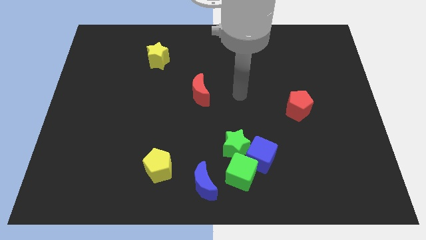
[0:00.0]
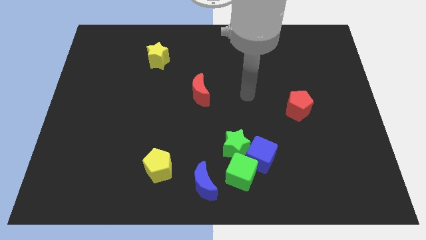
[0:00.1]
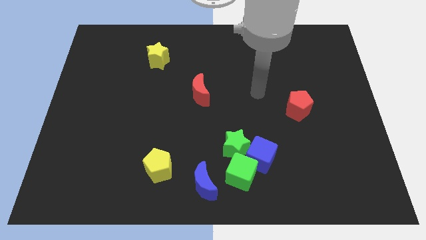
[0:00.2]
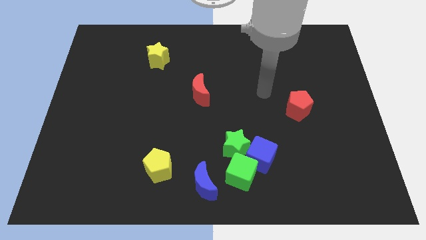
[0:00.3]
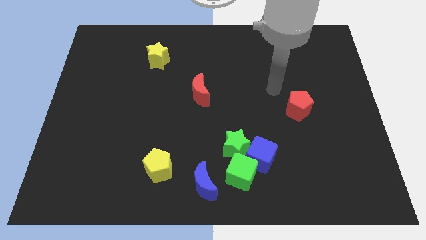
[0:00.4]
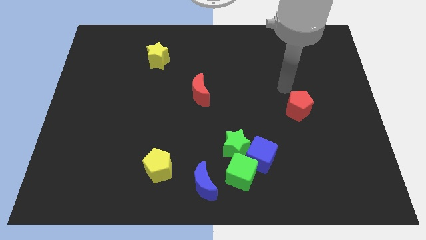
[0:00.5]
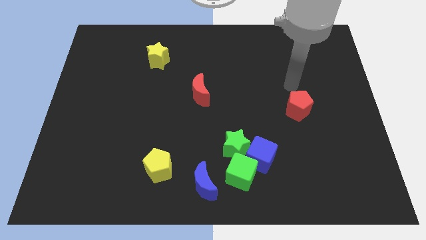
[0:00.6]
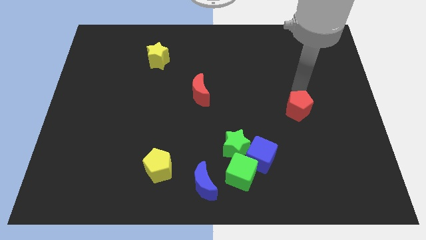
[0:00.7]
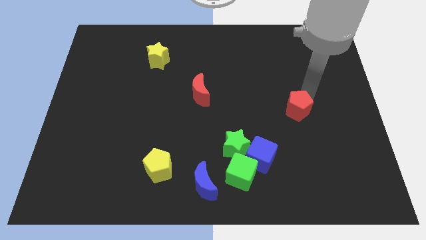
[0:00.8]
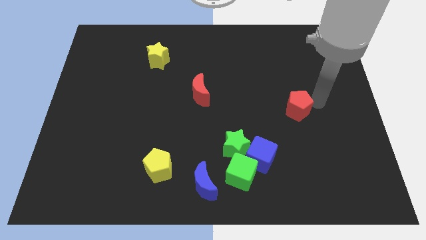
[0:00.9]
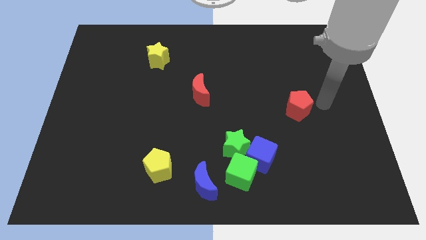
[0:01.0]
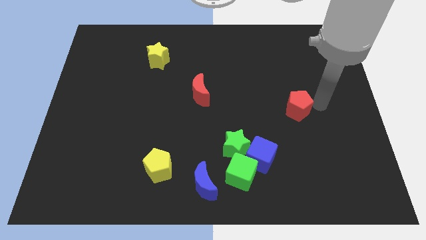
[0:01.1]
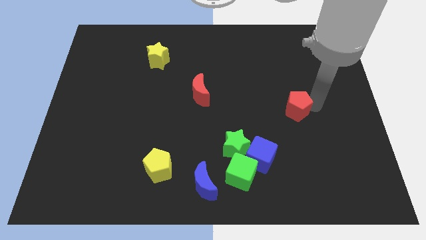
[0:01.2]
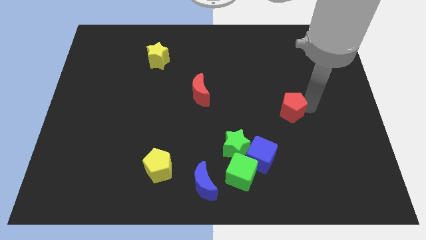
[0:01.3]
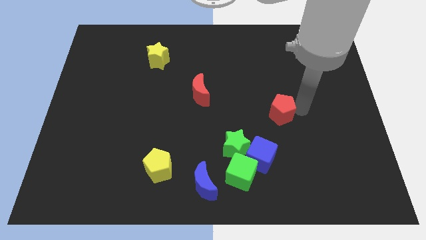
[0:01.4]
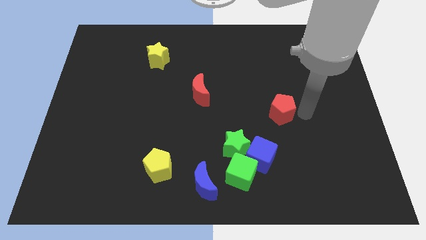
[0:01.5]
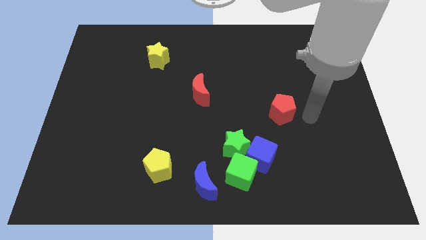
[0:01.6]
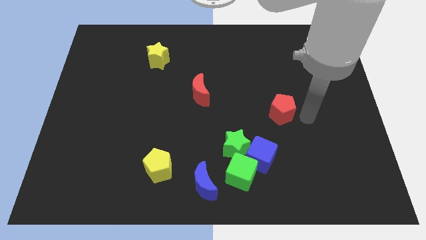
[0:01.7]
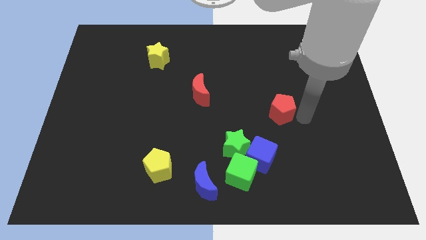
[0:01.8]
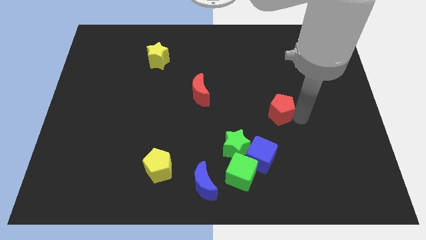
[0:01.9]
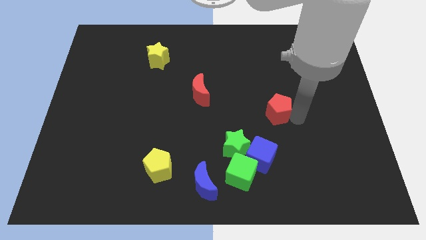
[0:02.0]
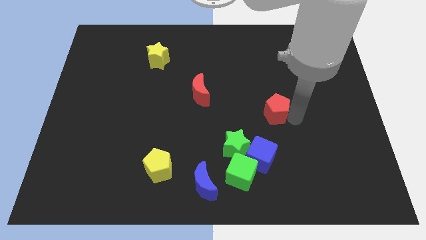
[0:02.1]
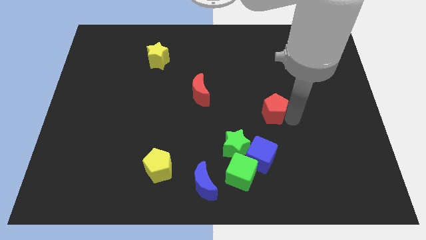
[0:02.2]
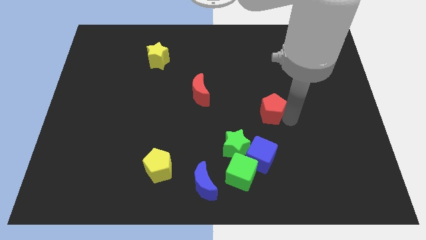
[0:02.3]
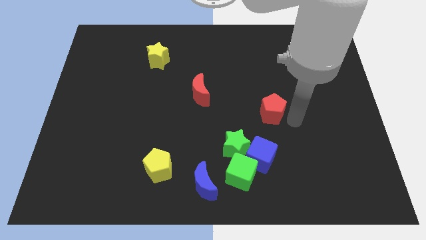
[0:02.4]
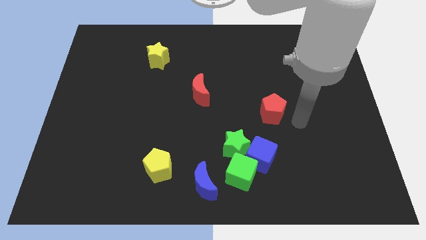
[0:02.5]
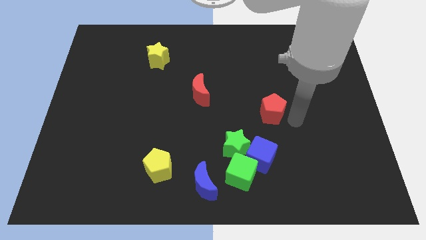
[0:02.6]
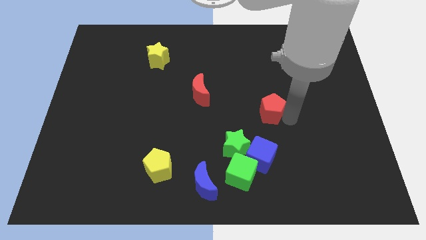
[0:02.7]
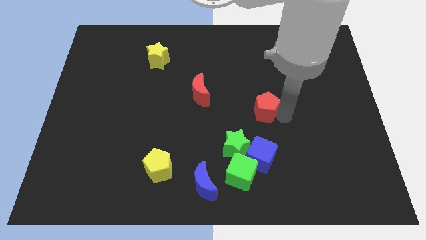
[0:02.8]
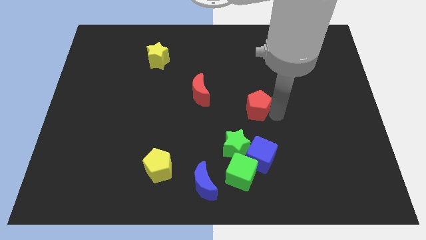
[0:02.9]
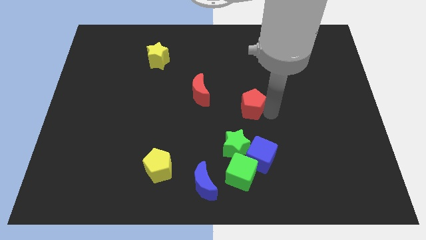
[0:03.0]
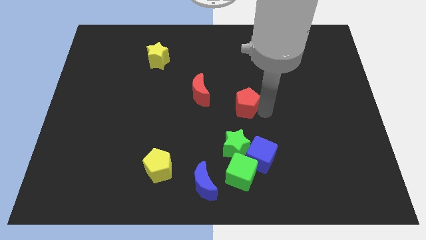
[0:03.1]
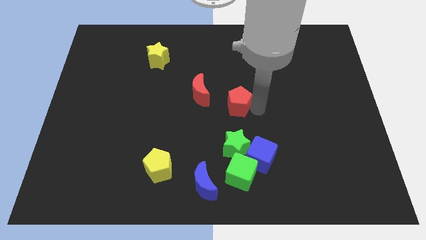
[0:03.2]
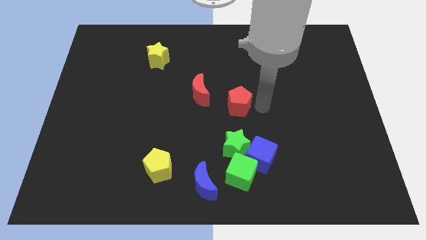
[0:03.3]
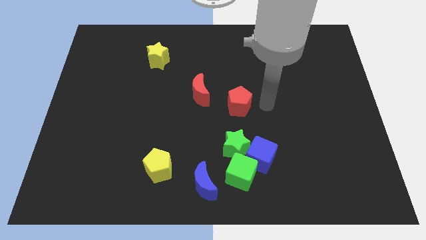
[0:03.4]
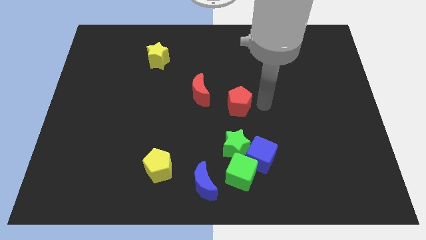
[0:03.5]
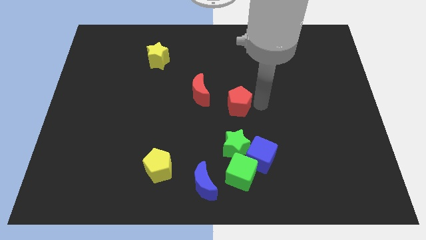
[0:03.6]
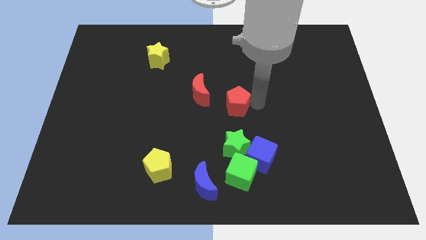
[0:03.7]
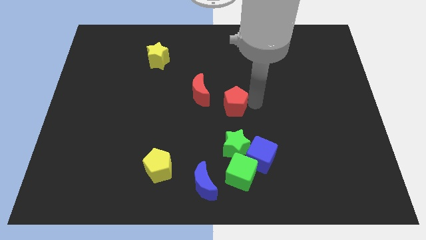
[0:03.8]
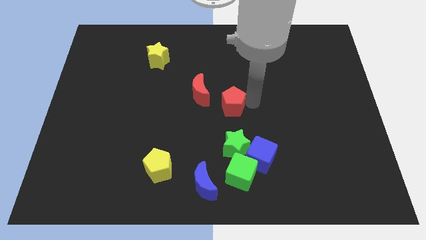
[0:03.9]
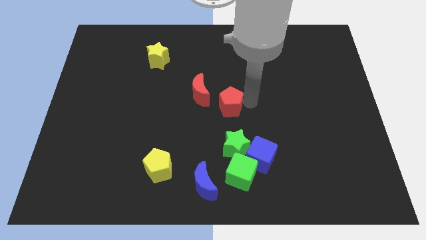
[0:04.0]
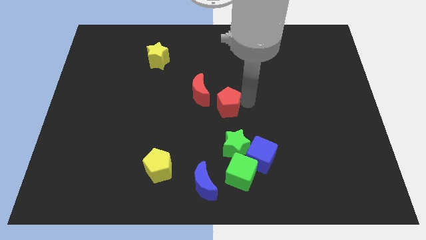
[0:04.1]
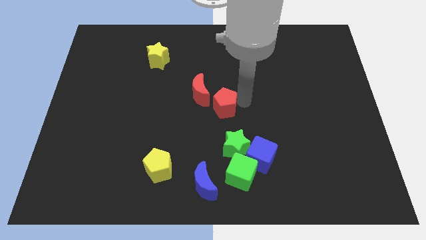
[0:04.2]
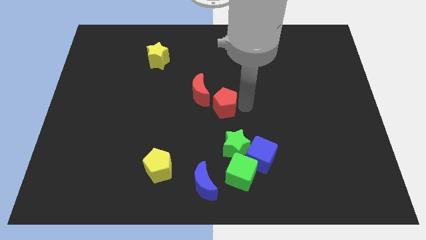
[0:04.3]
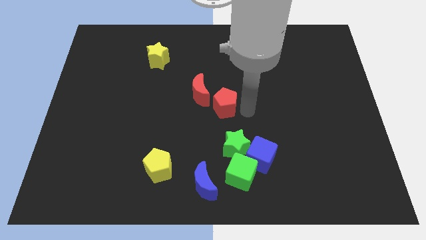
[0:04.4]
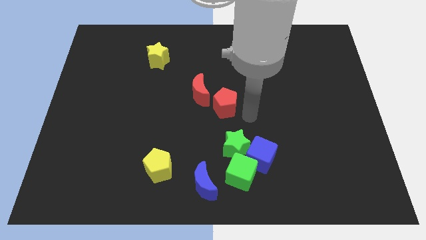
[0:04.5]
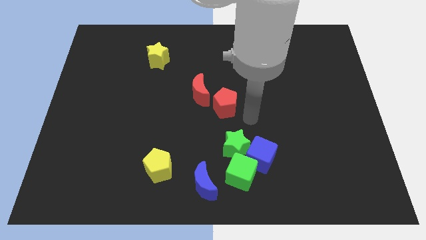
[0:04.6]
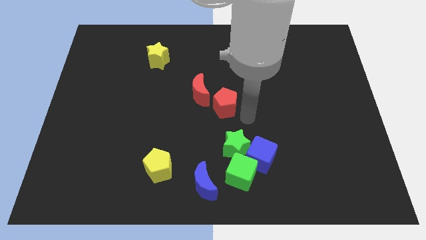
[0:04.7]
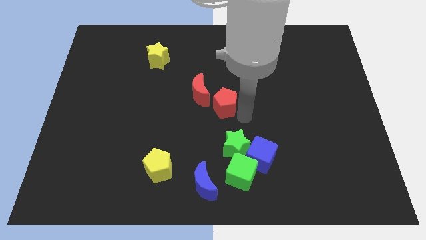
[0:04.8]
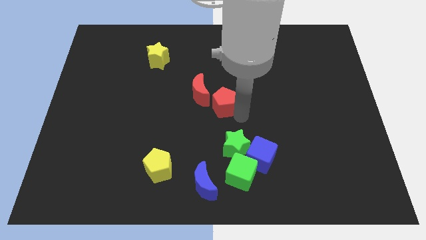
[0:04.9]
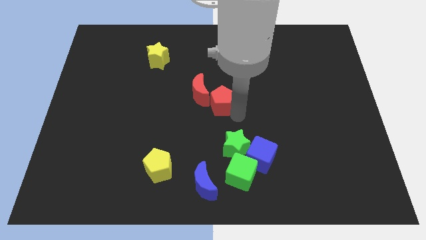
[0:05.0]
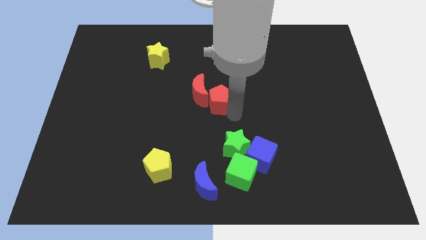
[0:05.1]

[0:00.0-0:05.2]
push the red pentagon next to the red moon

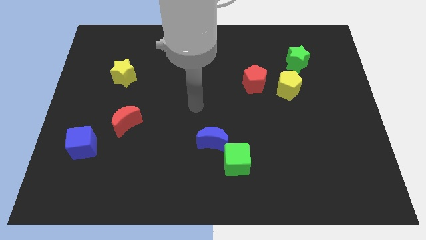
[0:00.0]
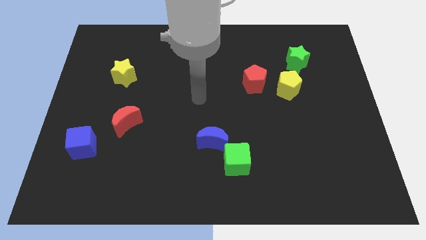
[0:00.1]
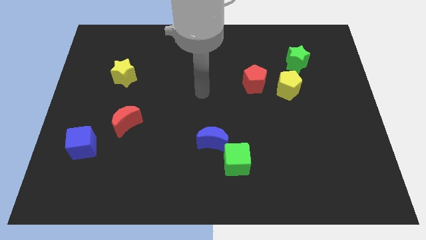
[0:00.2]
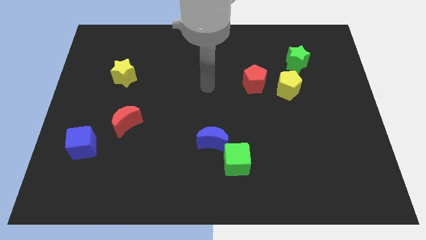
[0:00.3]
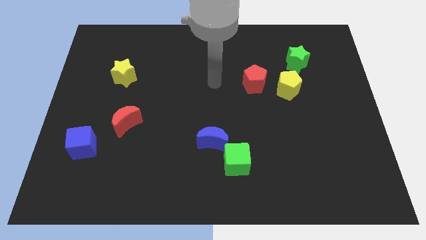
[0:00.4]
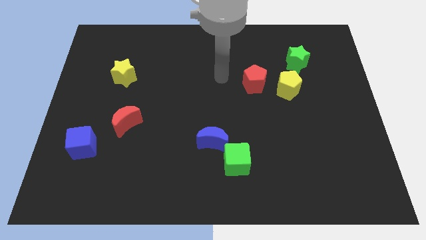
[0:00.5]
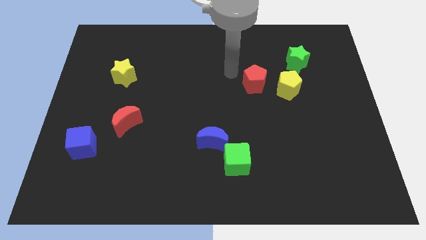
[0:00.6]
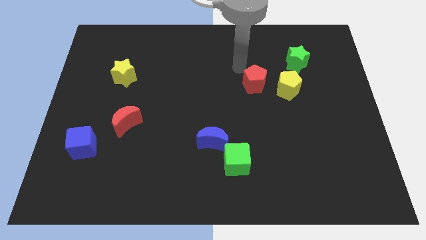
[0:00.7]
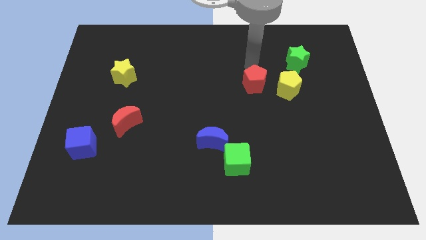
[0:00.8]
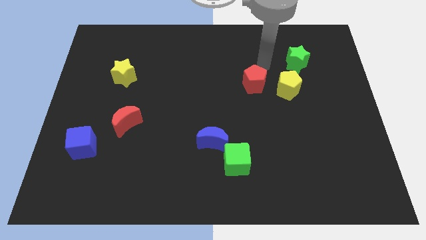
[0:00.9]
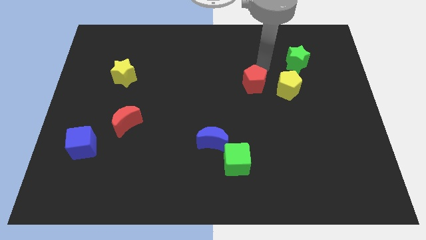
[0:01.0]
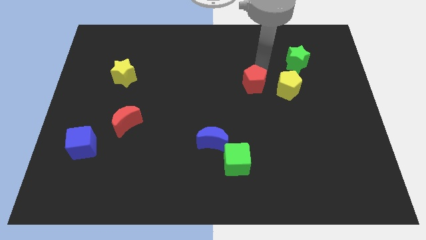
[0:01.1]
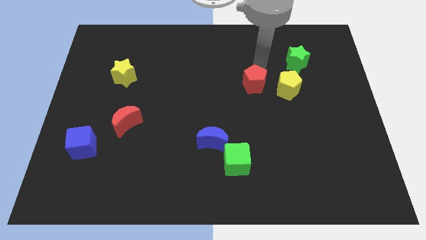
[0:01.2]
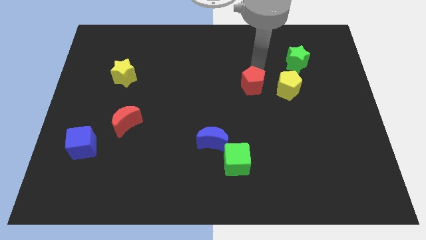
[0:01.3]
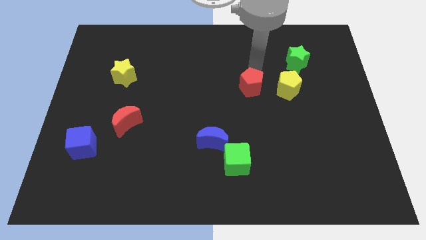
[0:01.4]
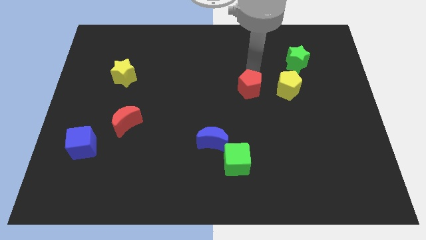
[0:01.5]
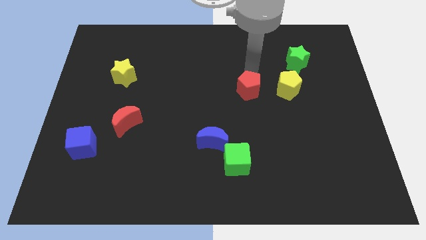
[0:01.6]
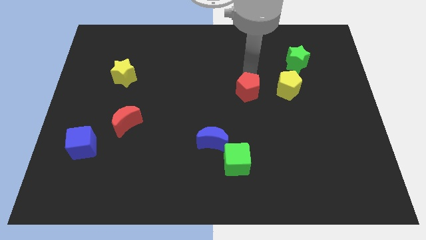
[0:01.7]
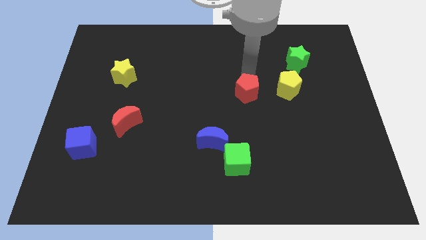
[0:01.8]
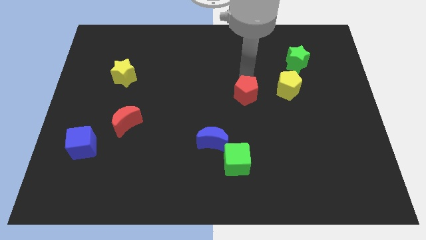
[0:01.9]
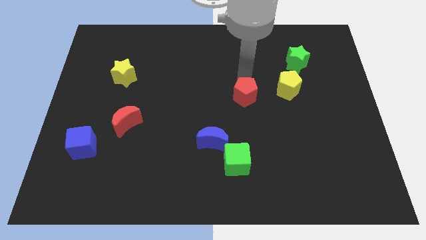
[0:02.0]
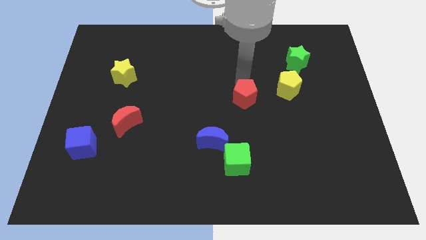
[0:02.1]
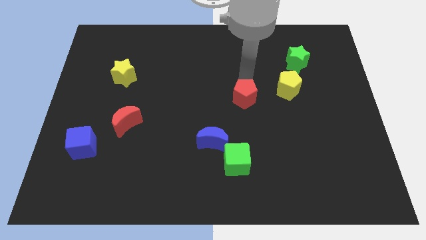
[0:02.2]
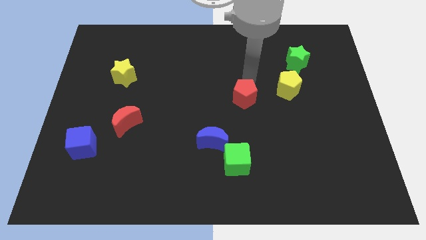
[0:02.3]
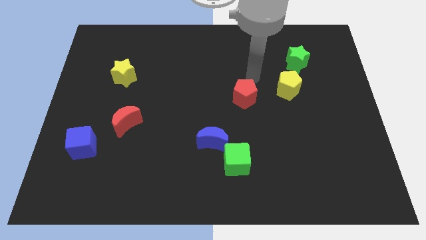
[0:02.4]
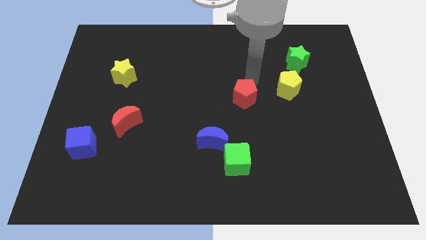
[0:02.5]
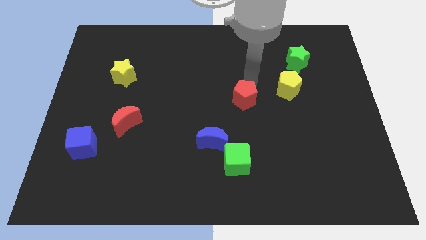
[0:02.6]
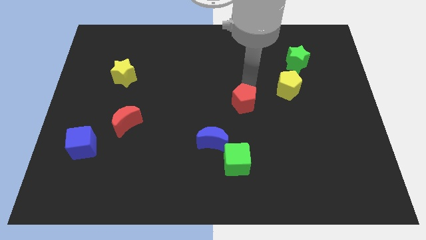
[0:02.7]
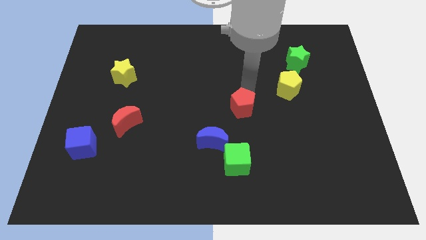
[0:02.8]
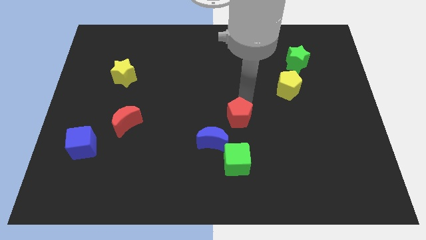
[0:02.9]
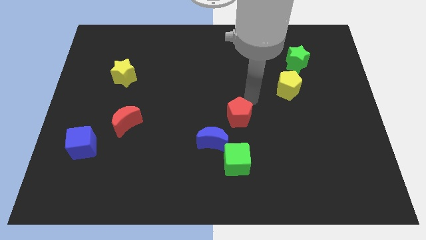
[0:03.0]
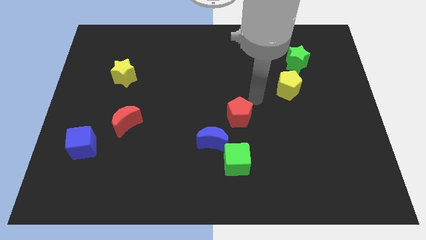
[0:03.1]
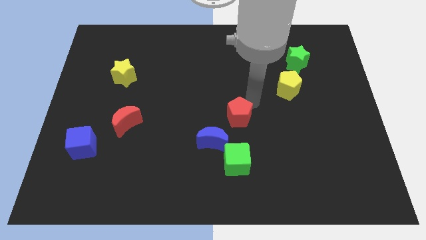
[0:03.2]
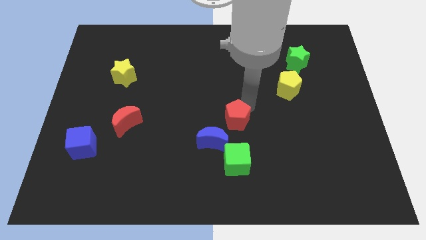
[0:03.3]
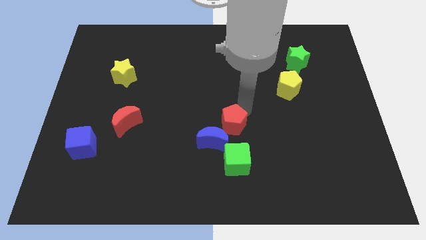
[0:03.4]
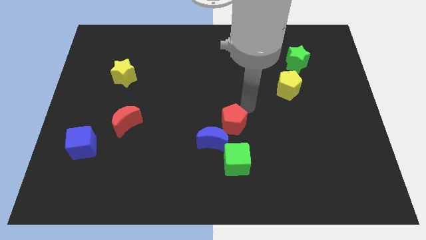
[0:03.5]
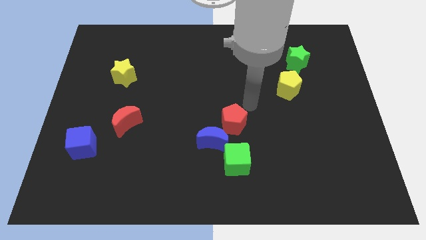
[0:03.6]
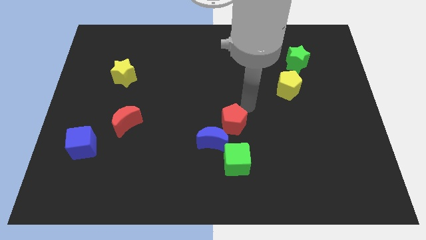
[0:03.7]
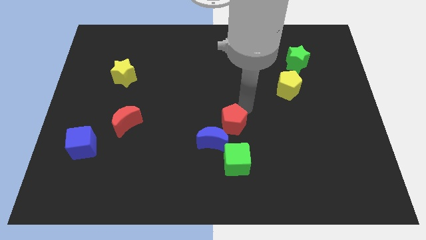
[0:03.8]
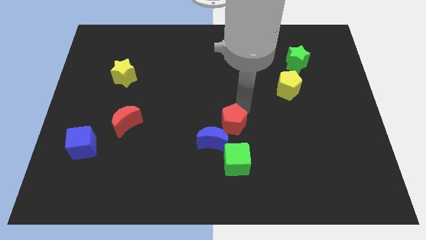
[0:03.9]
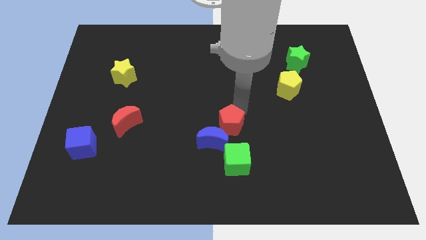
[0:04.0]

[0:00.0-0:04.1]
slide the red pentagon to the blue moon
